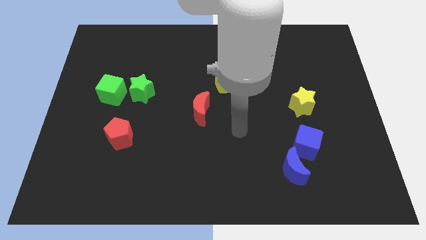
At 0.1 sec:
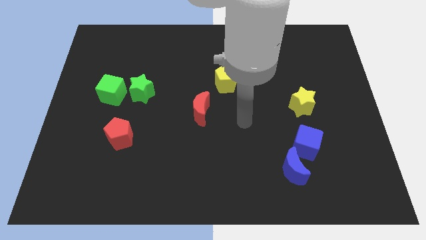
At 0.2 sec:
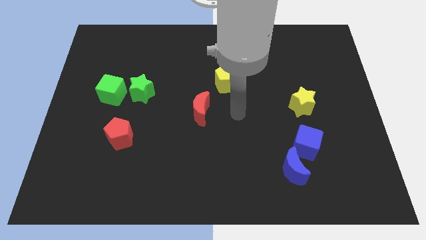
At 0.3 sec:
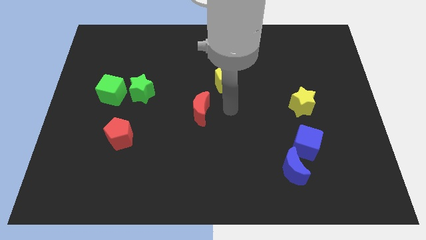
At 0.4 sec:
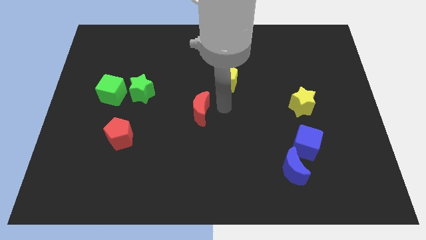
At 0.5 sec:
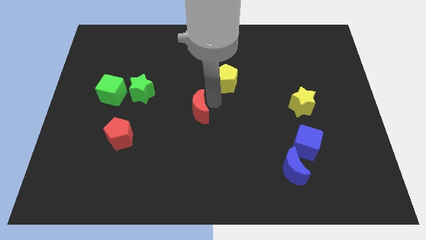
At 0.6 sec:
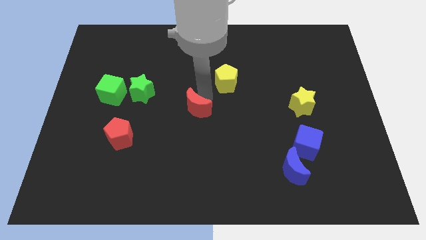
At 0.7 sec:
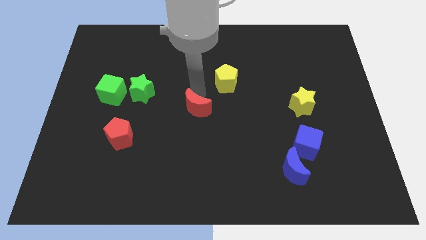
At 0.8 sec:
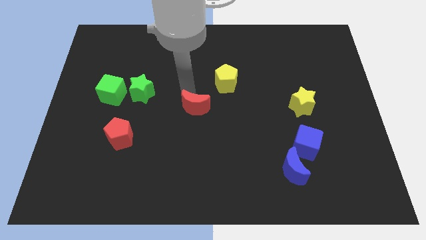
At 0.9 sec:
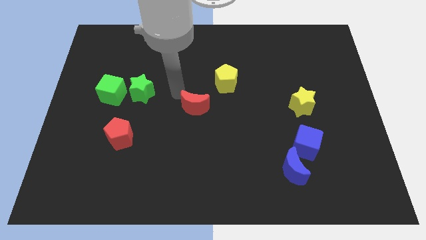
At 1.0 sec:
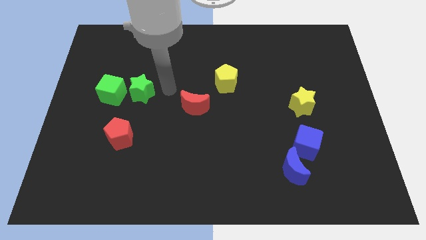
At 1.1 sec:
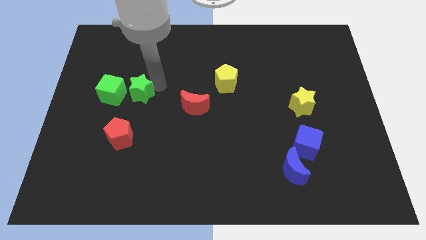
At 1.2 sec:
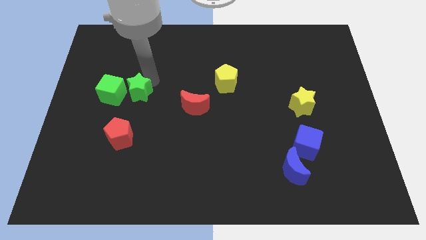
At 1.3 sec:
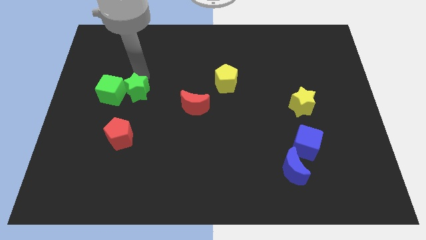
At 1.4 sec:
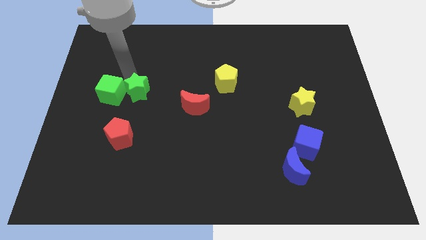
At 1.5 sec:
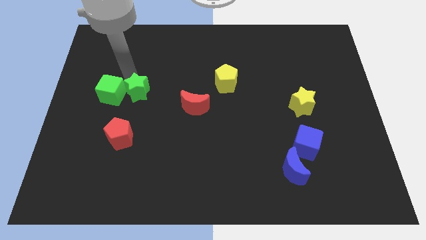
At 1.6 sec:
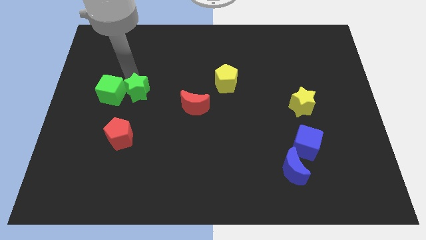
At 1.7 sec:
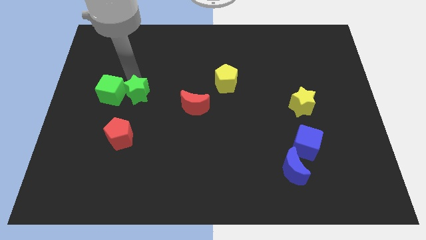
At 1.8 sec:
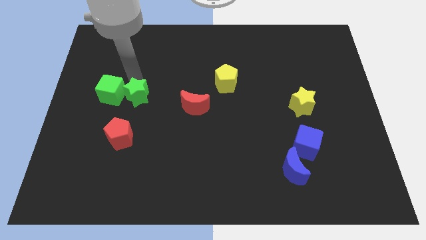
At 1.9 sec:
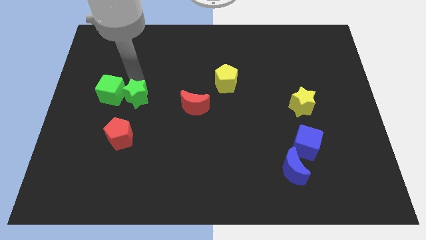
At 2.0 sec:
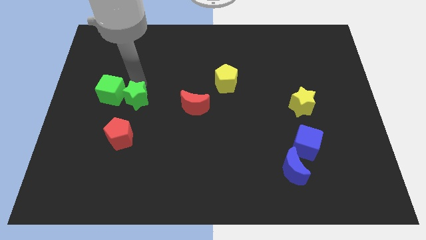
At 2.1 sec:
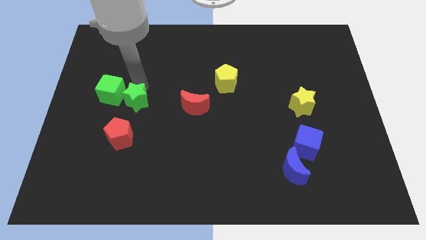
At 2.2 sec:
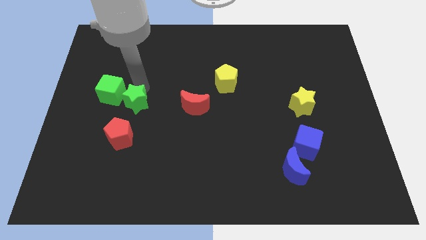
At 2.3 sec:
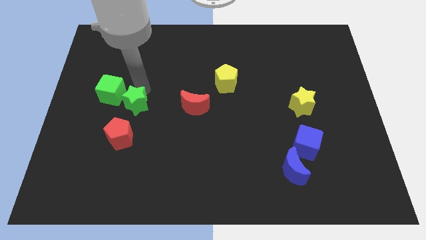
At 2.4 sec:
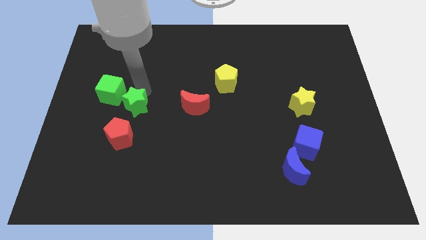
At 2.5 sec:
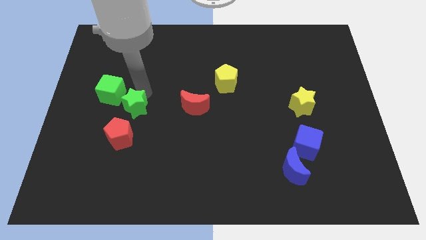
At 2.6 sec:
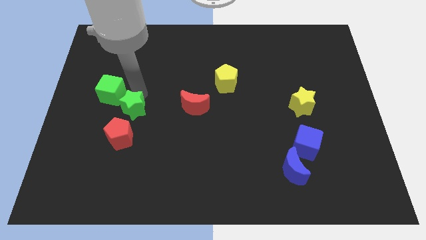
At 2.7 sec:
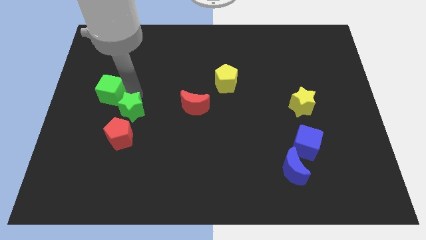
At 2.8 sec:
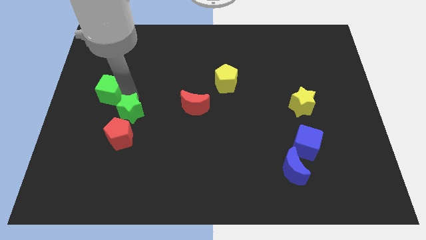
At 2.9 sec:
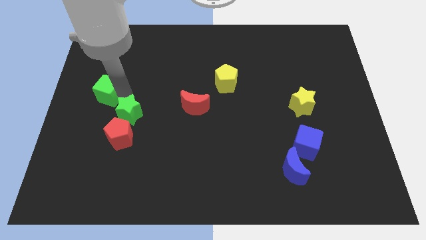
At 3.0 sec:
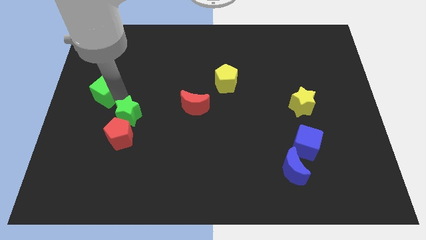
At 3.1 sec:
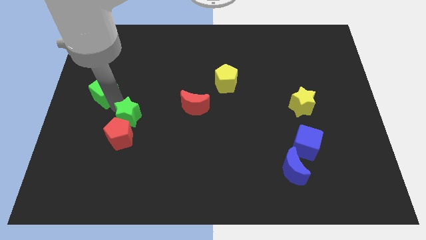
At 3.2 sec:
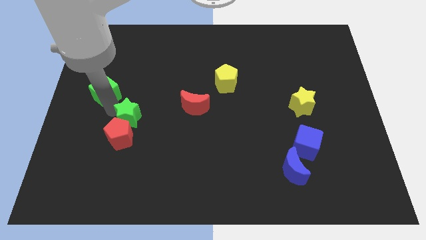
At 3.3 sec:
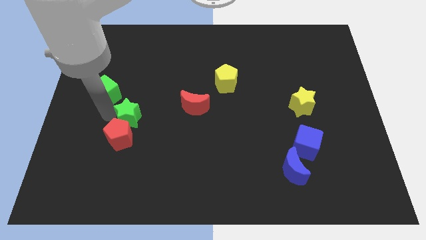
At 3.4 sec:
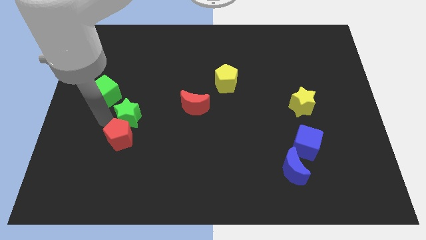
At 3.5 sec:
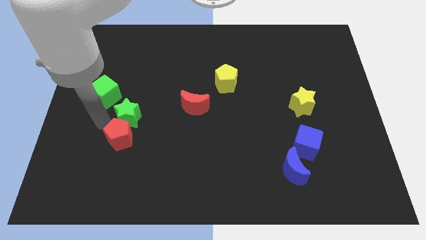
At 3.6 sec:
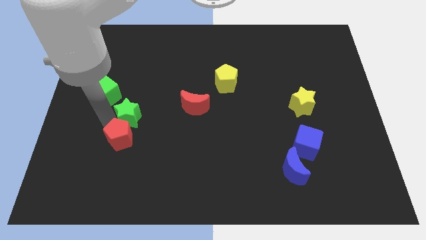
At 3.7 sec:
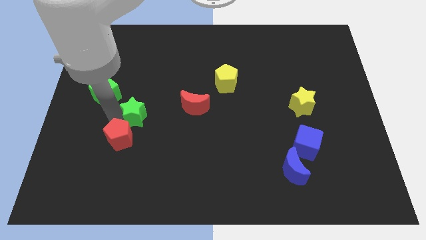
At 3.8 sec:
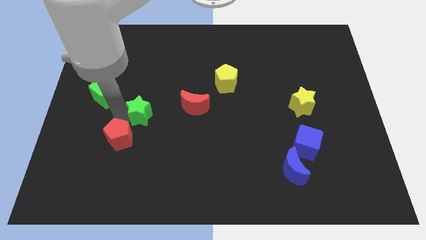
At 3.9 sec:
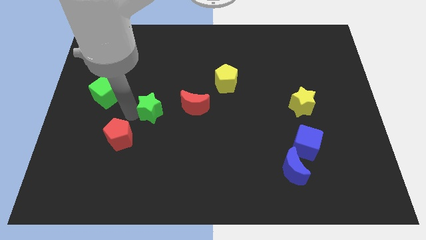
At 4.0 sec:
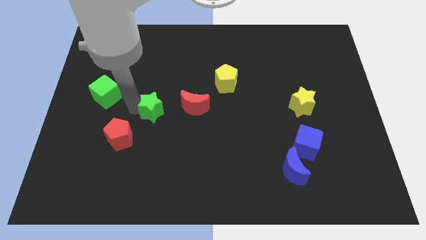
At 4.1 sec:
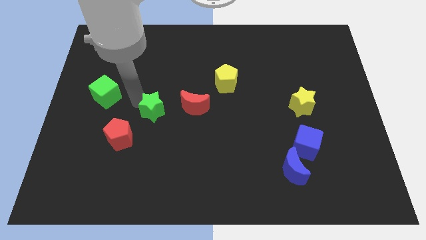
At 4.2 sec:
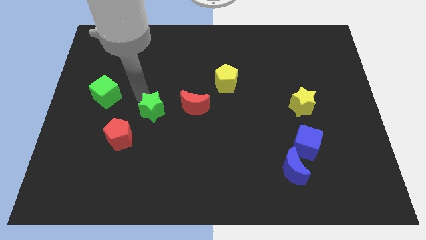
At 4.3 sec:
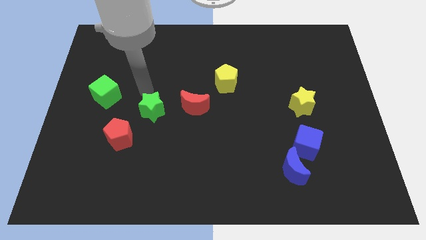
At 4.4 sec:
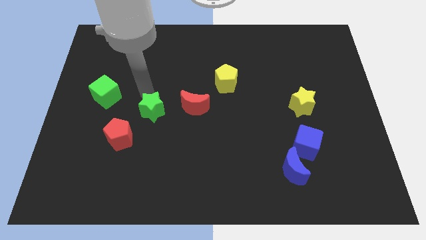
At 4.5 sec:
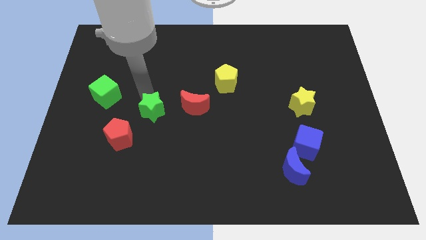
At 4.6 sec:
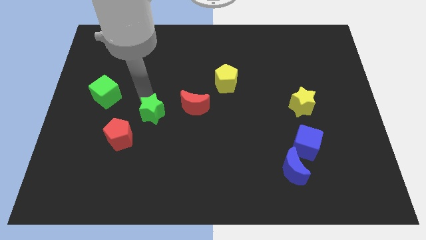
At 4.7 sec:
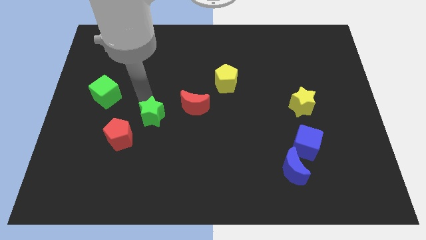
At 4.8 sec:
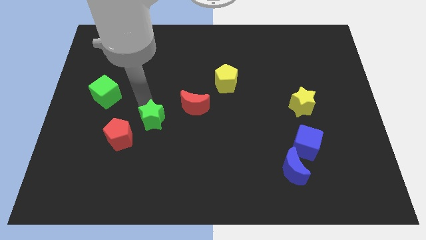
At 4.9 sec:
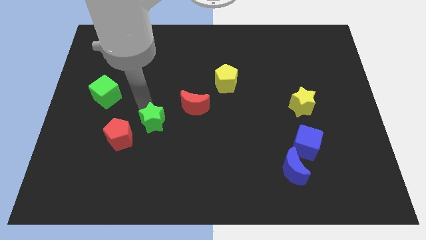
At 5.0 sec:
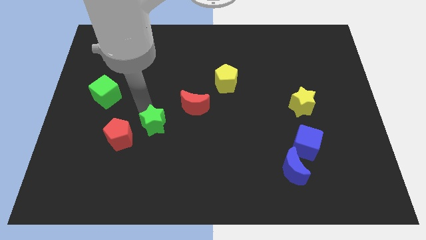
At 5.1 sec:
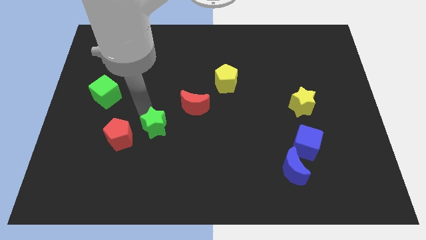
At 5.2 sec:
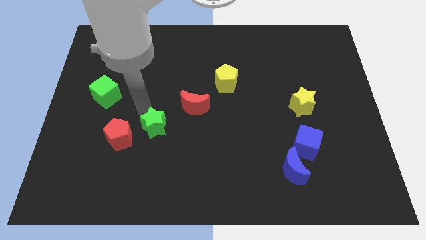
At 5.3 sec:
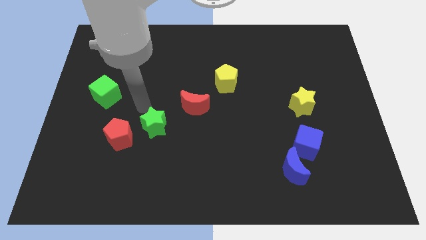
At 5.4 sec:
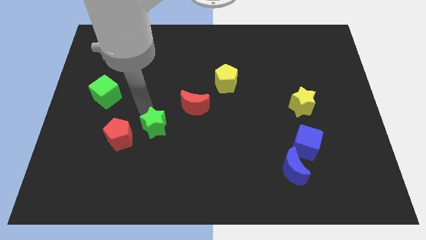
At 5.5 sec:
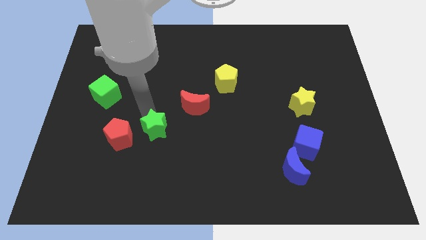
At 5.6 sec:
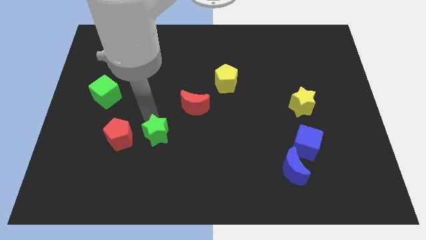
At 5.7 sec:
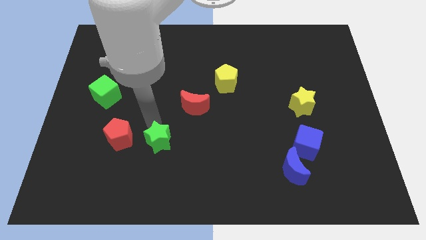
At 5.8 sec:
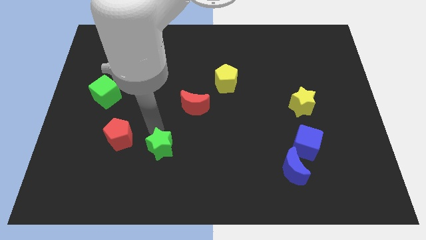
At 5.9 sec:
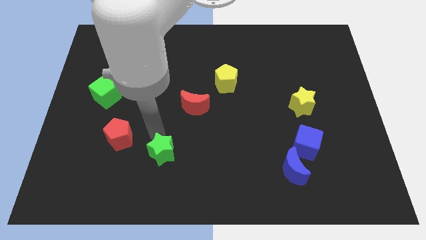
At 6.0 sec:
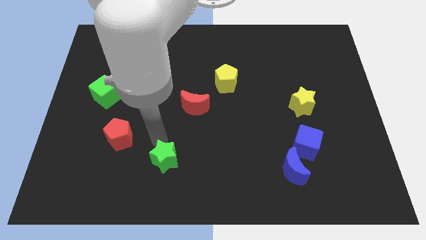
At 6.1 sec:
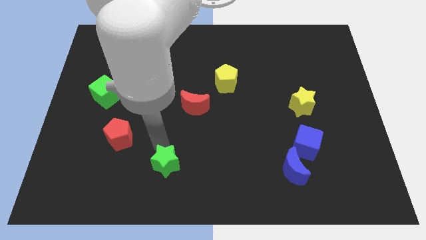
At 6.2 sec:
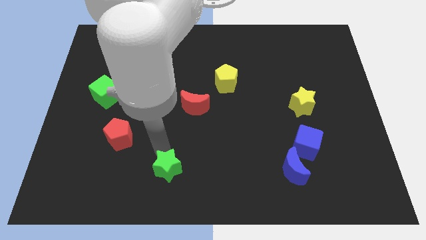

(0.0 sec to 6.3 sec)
push the green star to the bottom
